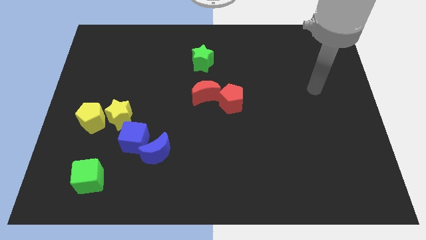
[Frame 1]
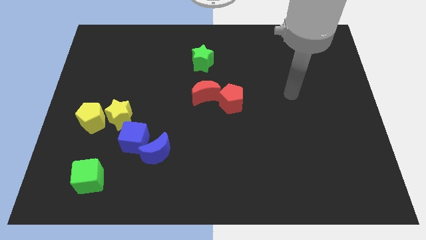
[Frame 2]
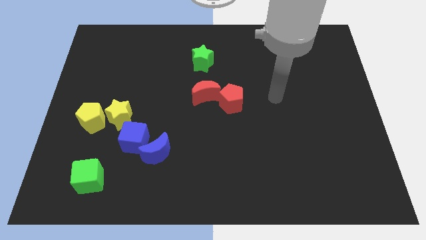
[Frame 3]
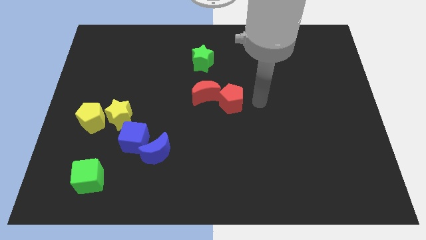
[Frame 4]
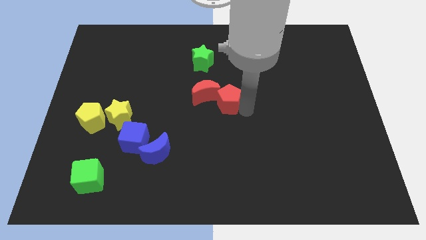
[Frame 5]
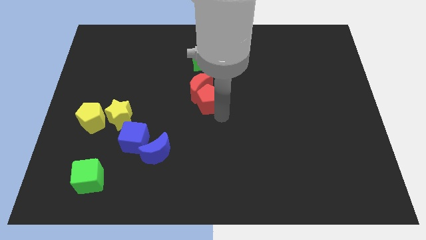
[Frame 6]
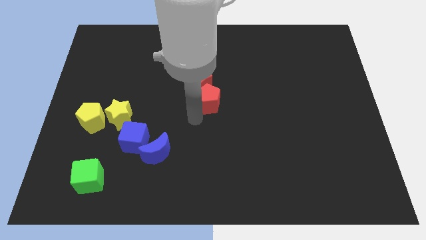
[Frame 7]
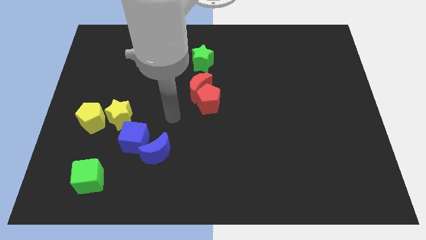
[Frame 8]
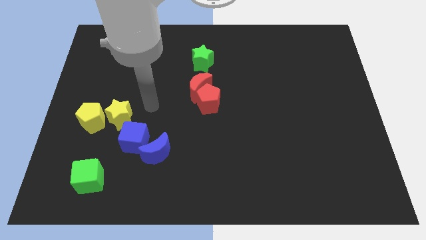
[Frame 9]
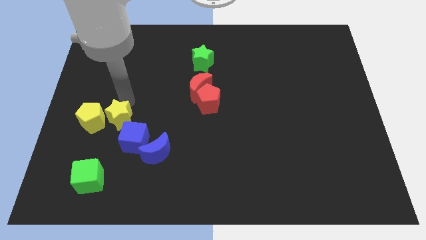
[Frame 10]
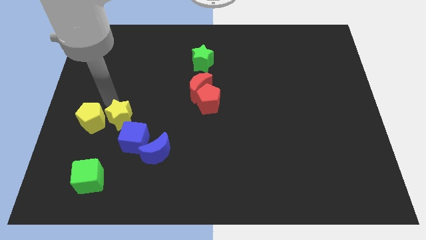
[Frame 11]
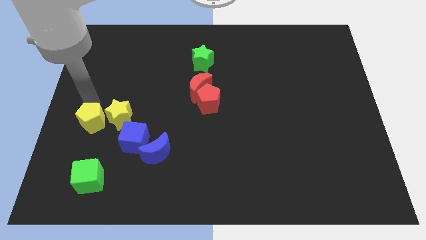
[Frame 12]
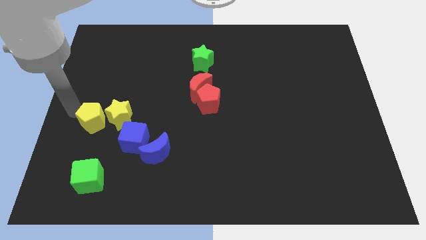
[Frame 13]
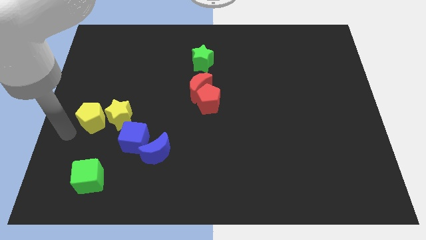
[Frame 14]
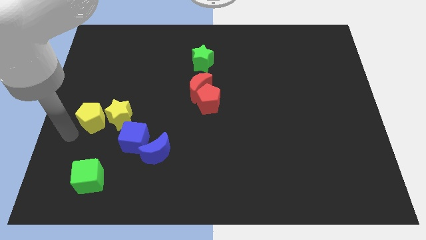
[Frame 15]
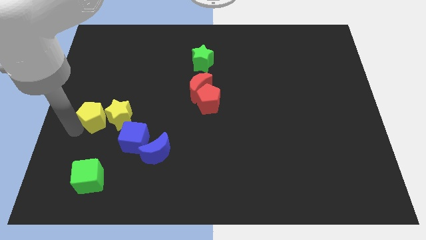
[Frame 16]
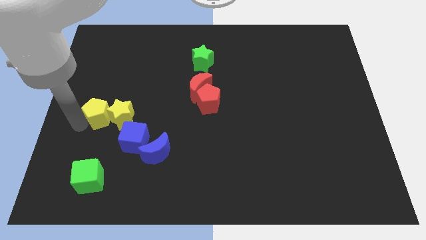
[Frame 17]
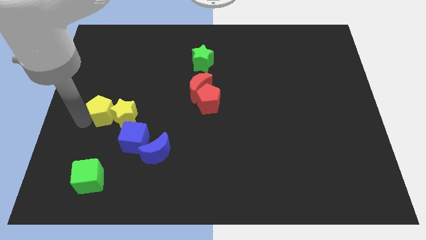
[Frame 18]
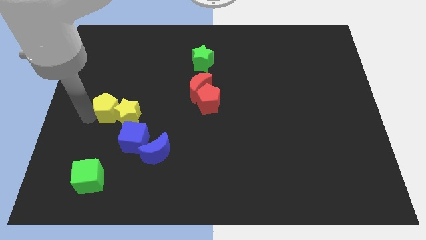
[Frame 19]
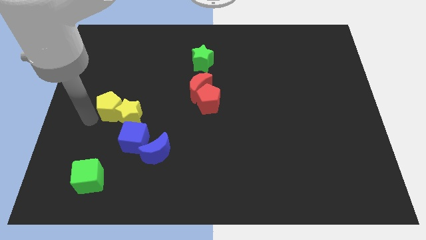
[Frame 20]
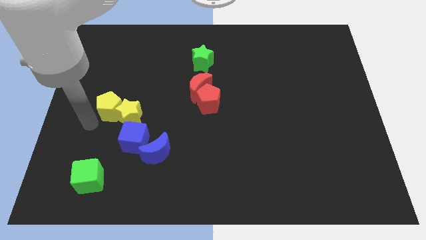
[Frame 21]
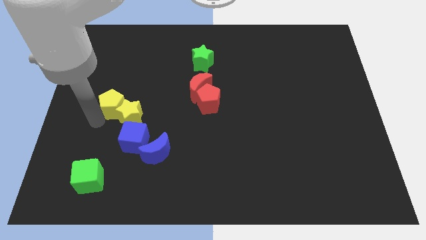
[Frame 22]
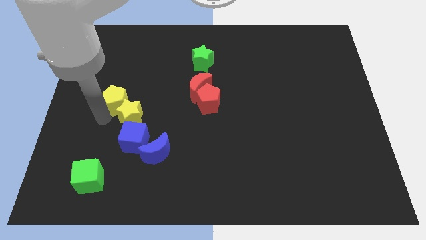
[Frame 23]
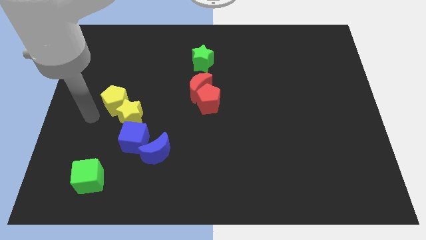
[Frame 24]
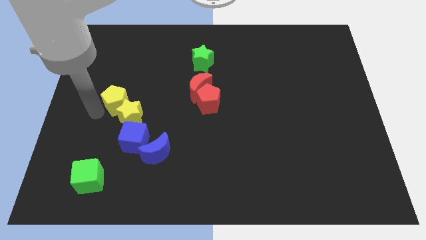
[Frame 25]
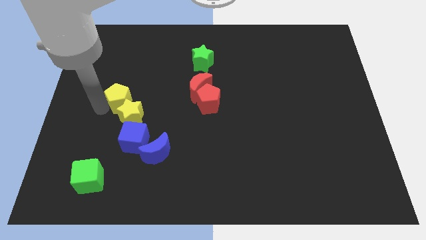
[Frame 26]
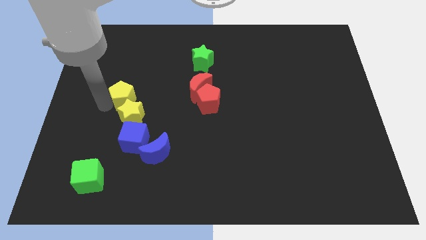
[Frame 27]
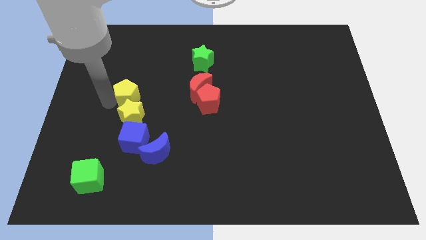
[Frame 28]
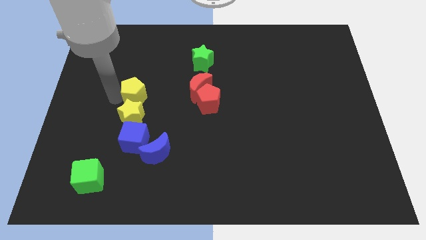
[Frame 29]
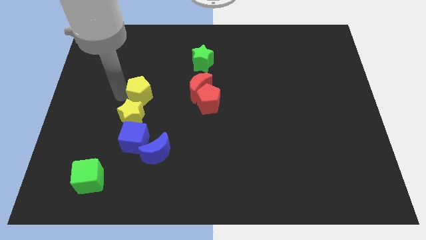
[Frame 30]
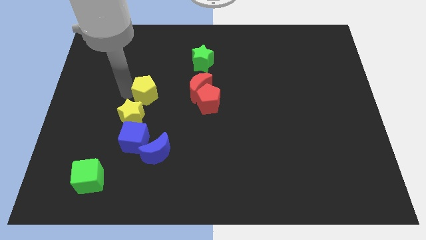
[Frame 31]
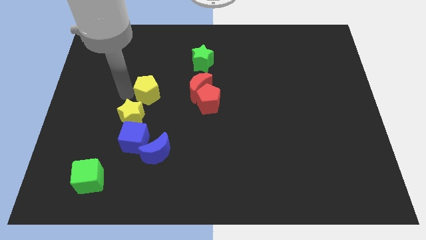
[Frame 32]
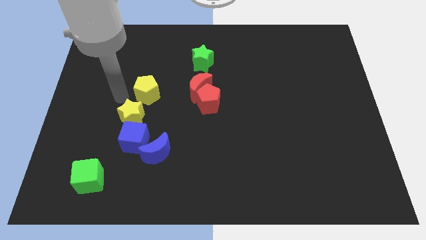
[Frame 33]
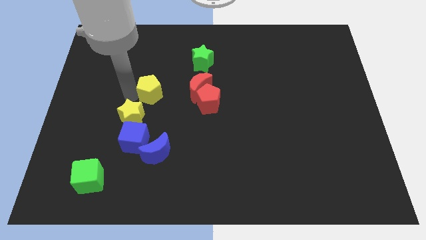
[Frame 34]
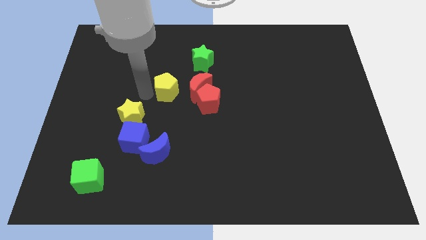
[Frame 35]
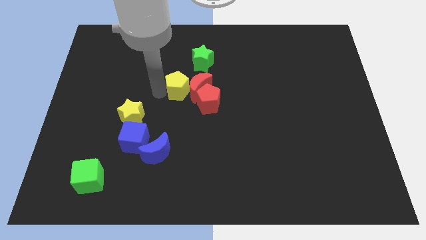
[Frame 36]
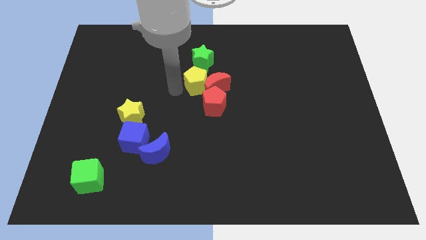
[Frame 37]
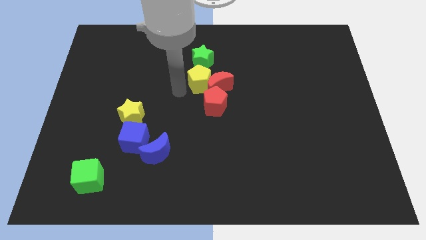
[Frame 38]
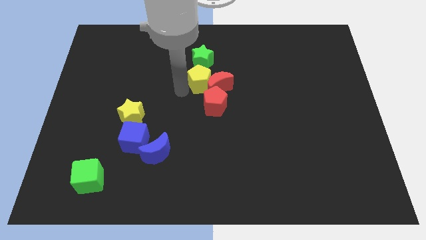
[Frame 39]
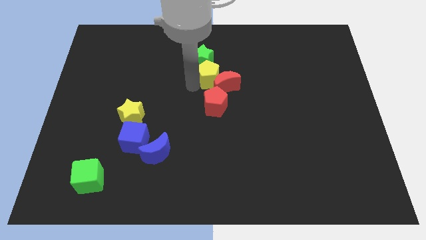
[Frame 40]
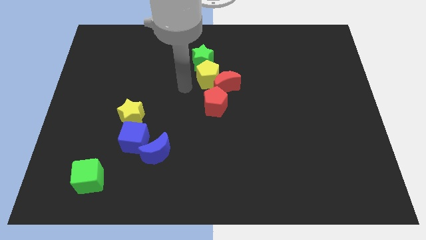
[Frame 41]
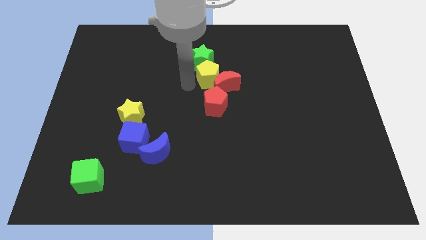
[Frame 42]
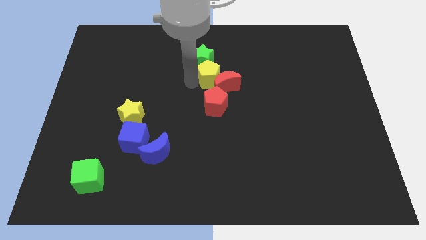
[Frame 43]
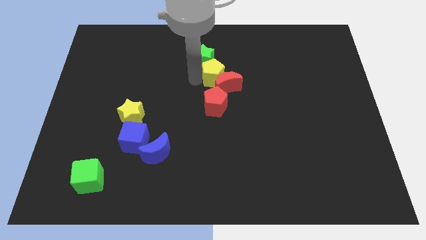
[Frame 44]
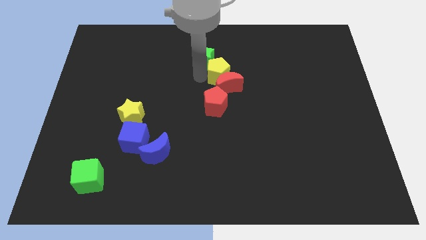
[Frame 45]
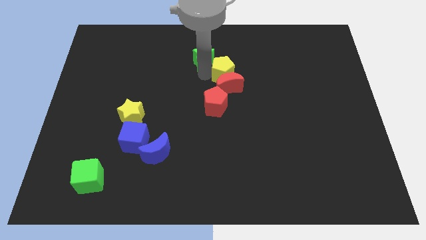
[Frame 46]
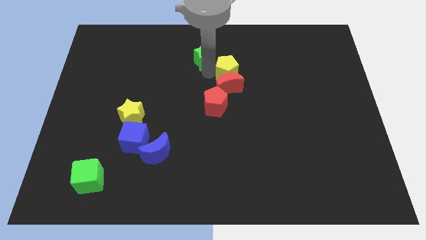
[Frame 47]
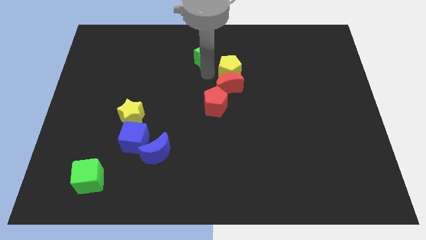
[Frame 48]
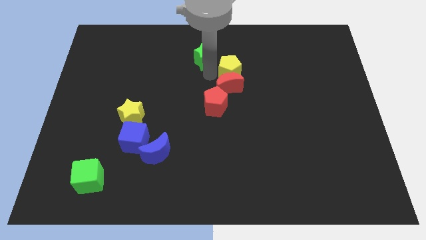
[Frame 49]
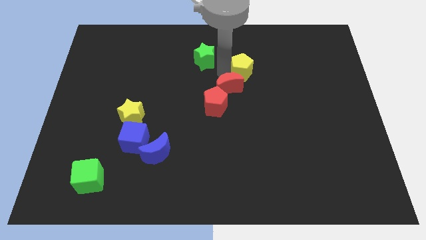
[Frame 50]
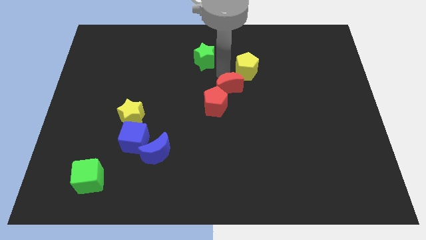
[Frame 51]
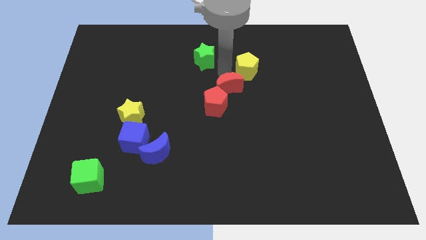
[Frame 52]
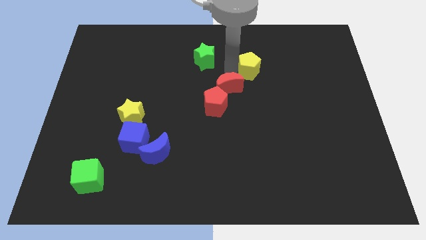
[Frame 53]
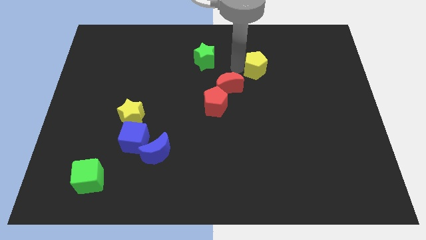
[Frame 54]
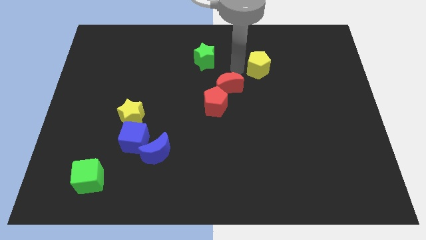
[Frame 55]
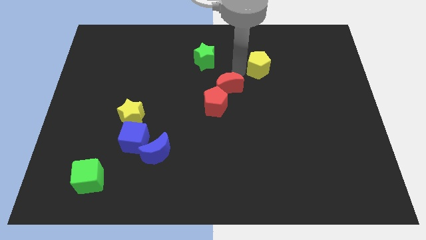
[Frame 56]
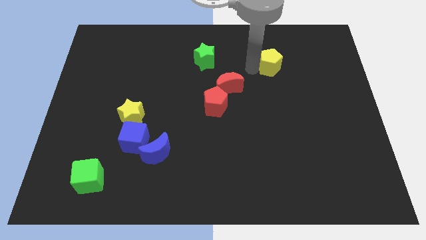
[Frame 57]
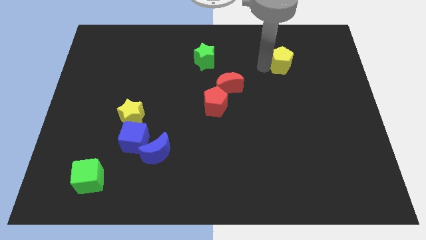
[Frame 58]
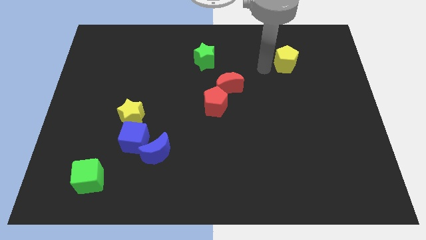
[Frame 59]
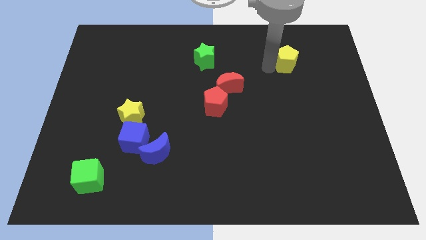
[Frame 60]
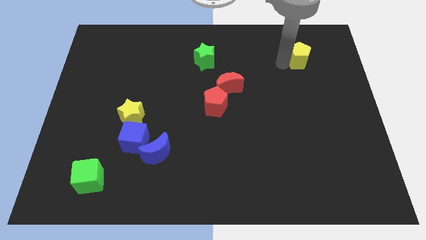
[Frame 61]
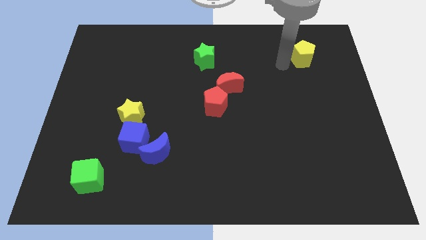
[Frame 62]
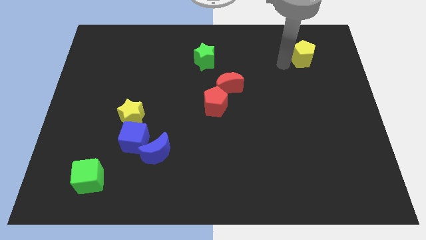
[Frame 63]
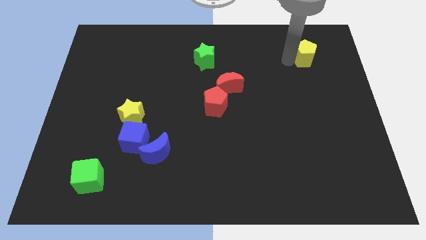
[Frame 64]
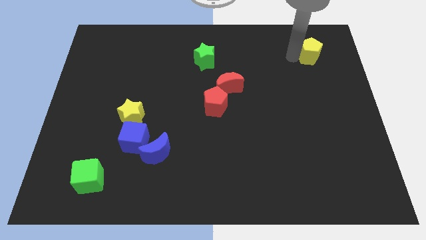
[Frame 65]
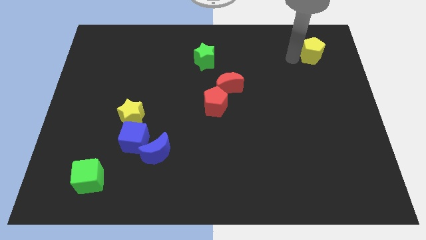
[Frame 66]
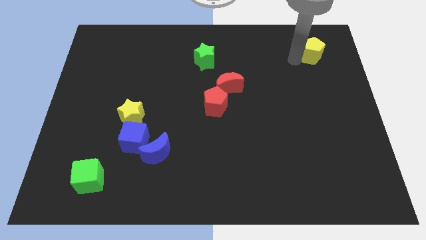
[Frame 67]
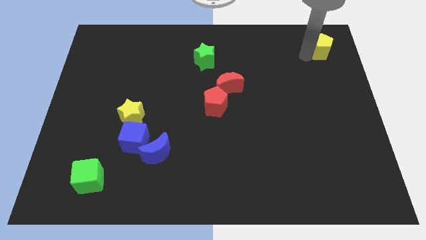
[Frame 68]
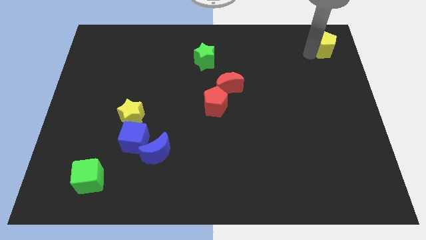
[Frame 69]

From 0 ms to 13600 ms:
put the yellow pentagon to the top right
